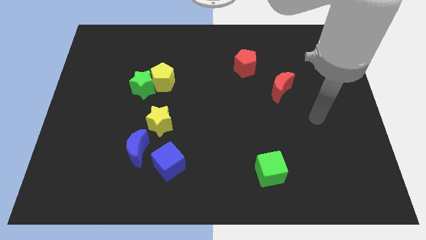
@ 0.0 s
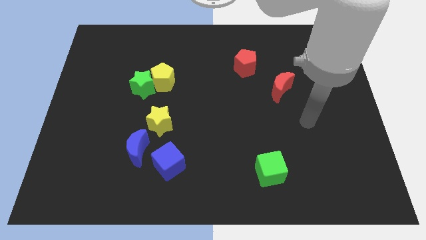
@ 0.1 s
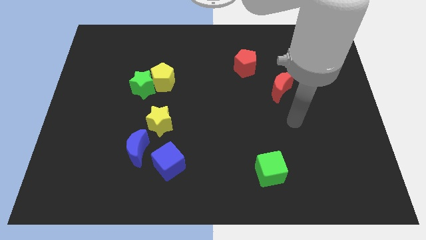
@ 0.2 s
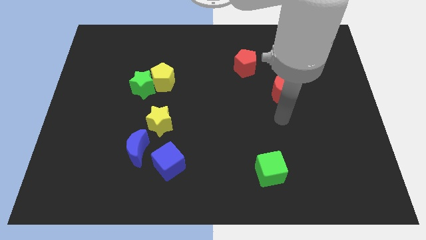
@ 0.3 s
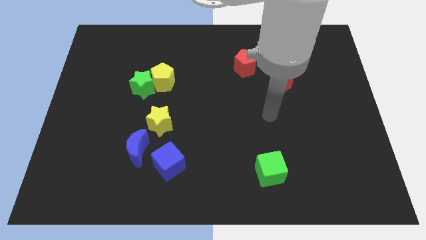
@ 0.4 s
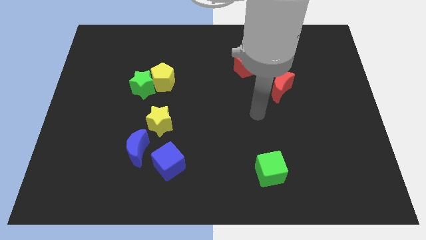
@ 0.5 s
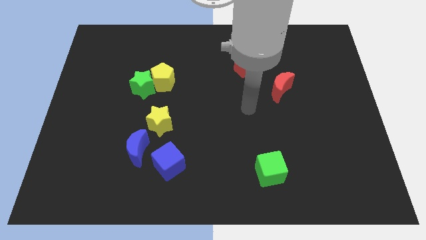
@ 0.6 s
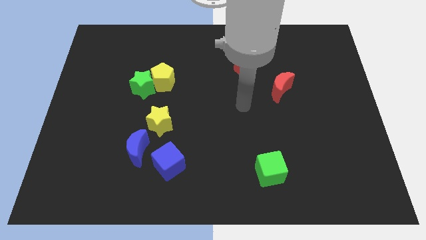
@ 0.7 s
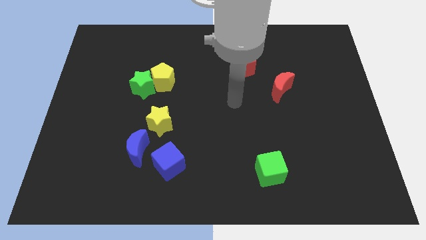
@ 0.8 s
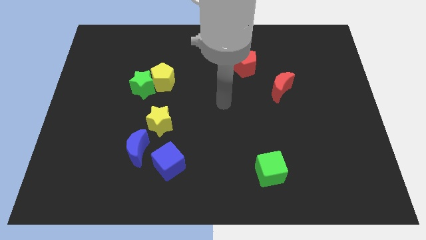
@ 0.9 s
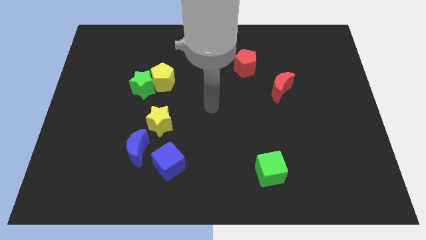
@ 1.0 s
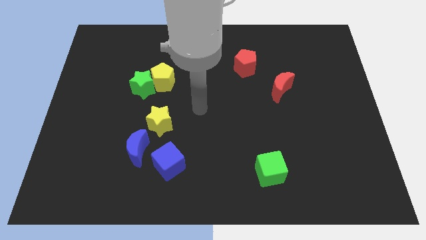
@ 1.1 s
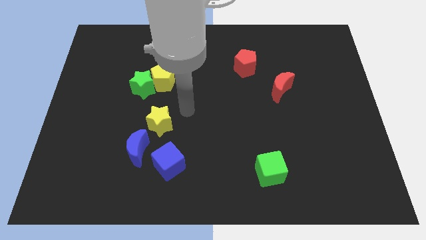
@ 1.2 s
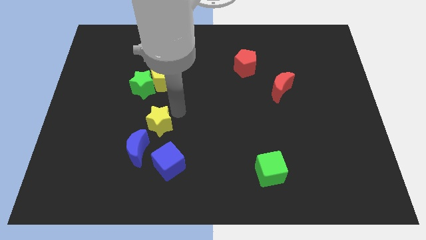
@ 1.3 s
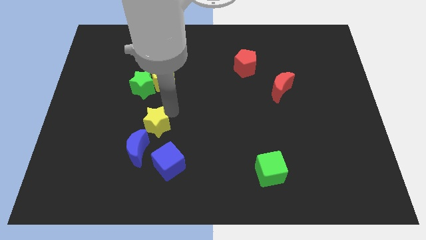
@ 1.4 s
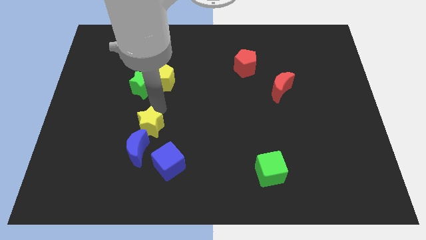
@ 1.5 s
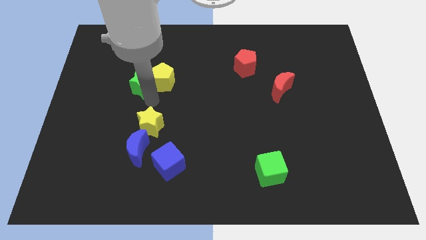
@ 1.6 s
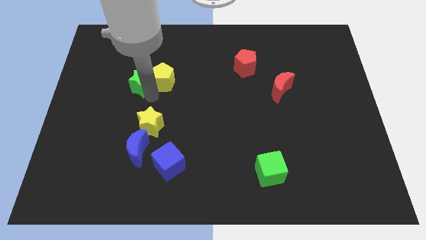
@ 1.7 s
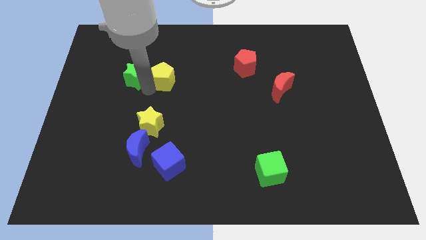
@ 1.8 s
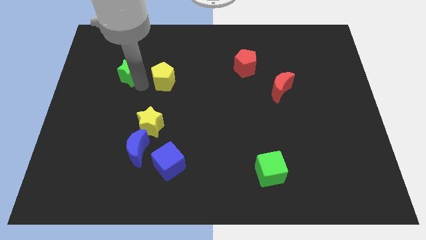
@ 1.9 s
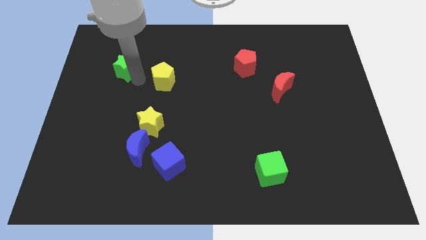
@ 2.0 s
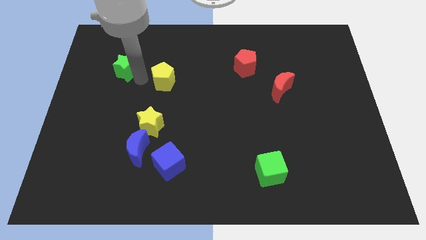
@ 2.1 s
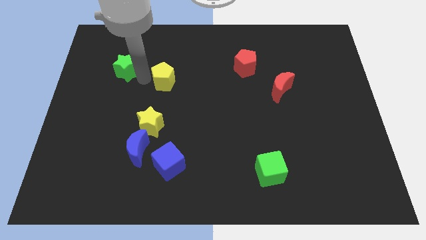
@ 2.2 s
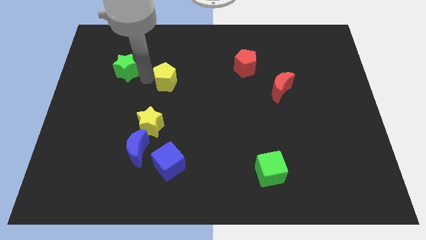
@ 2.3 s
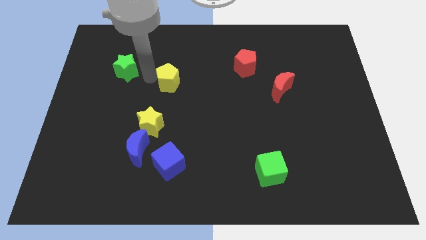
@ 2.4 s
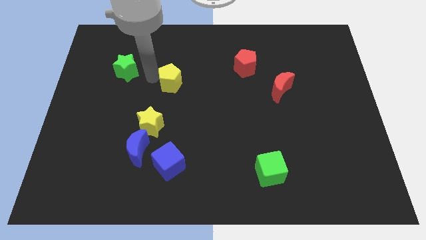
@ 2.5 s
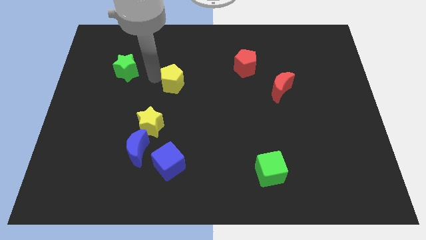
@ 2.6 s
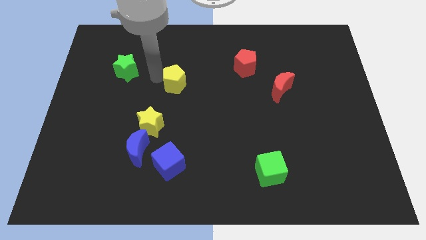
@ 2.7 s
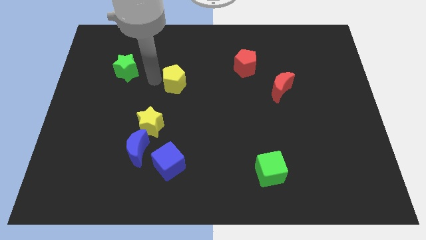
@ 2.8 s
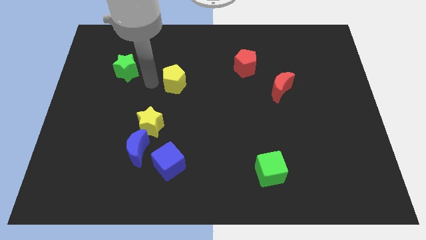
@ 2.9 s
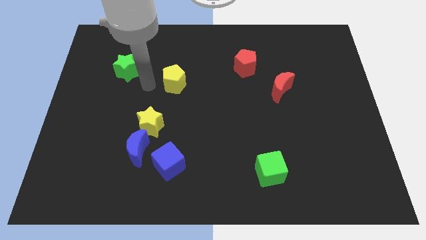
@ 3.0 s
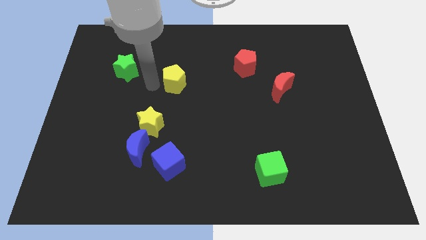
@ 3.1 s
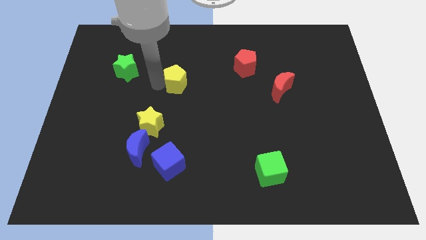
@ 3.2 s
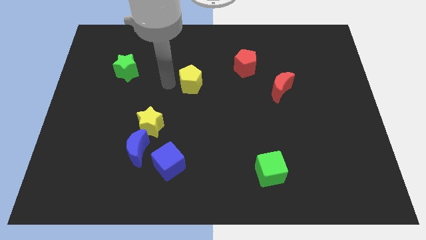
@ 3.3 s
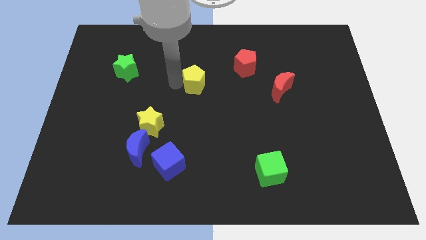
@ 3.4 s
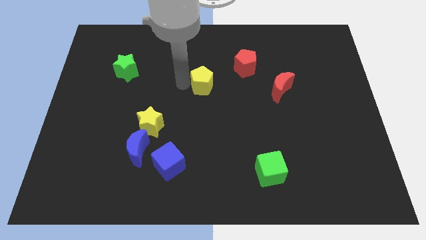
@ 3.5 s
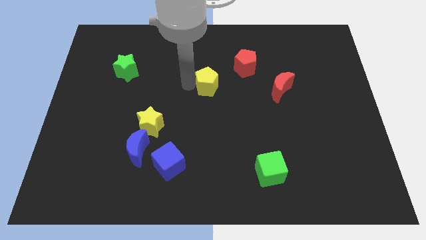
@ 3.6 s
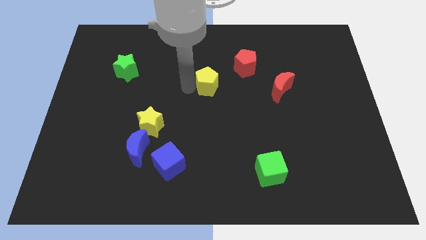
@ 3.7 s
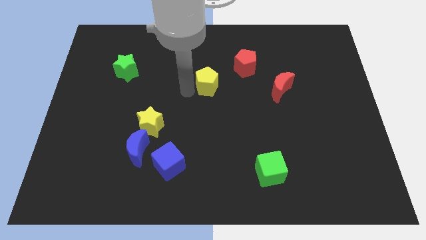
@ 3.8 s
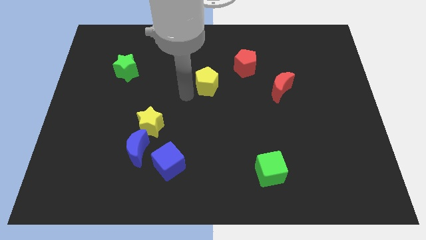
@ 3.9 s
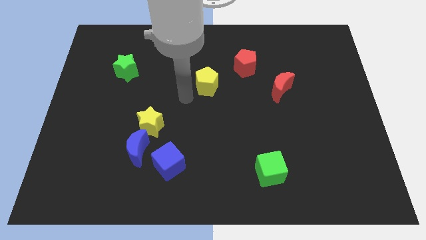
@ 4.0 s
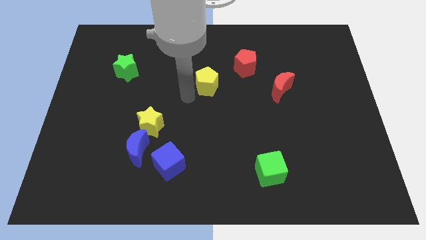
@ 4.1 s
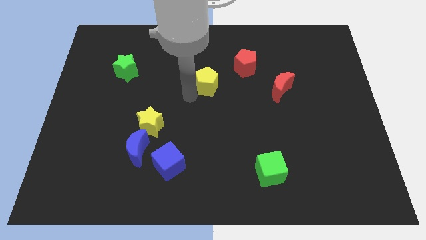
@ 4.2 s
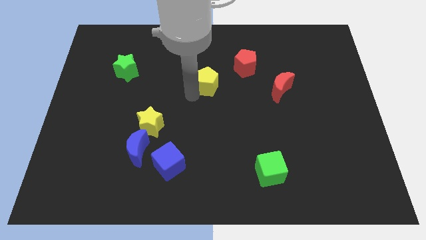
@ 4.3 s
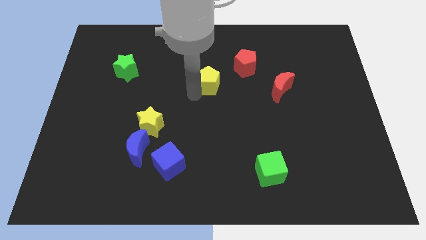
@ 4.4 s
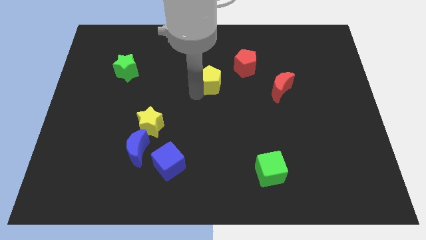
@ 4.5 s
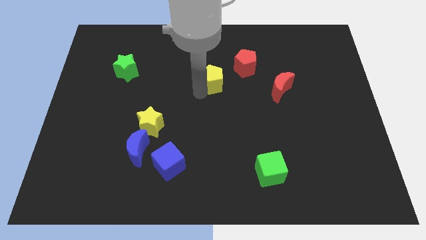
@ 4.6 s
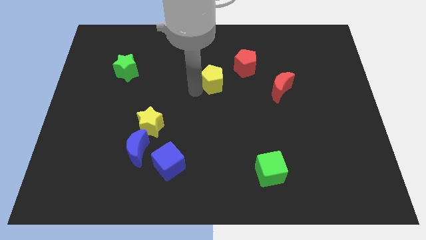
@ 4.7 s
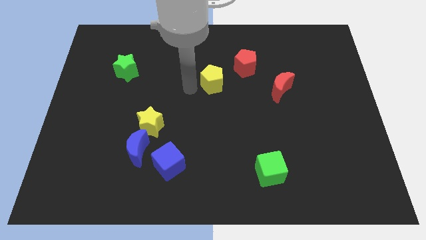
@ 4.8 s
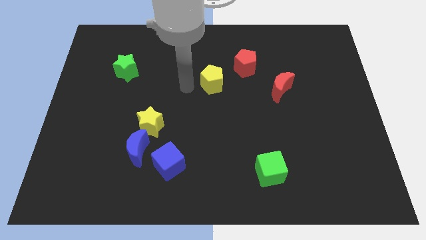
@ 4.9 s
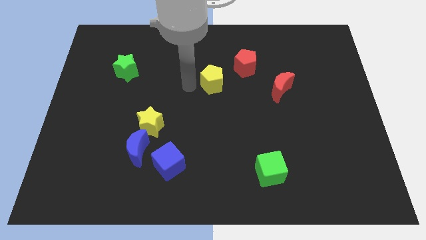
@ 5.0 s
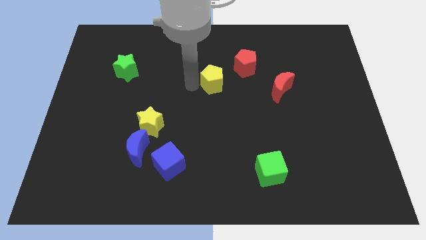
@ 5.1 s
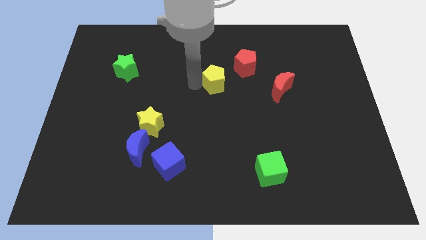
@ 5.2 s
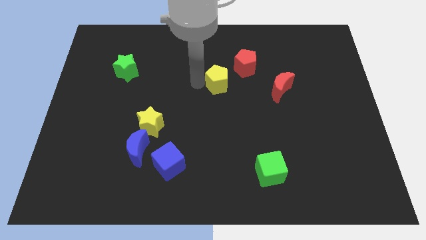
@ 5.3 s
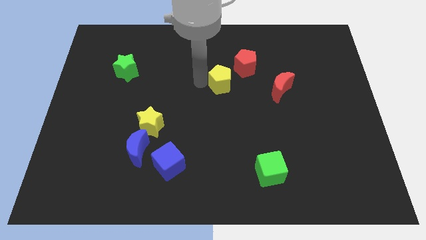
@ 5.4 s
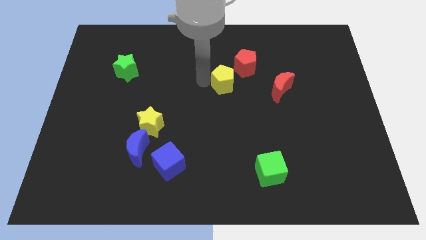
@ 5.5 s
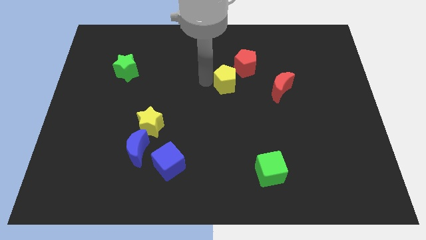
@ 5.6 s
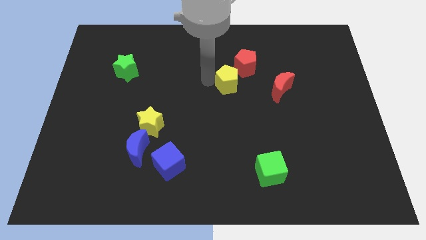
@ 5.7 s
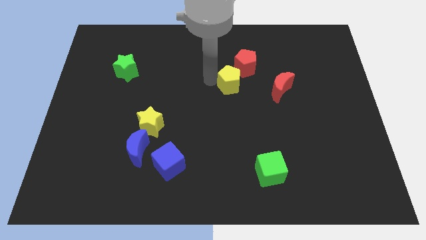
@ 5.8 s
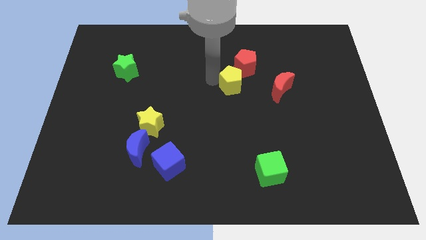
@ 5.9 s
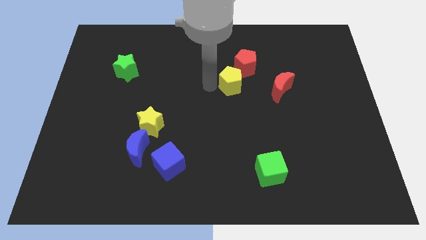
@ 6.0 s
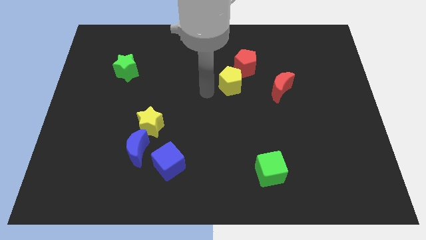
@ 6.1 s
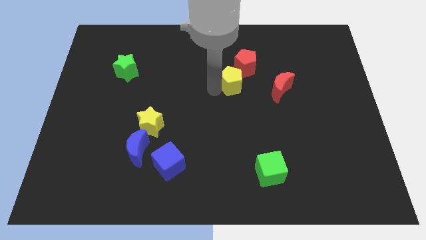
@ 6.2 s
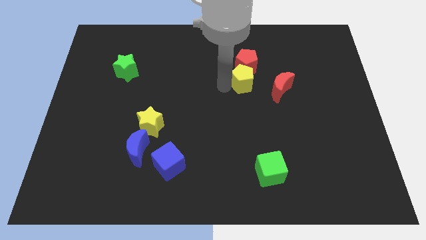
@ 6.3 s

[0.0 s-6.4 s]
slide the yellow pentagon right

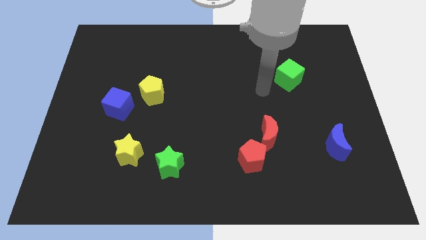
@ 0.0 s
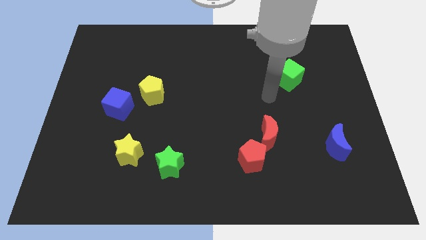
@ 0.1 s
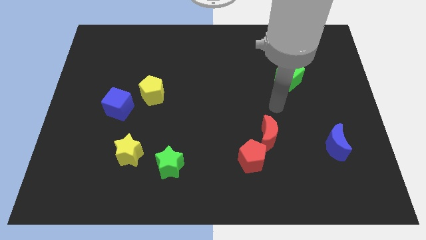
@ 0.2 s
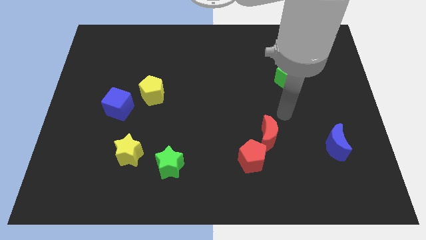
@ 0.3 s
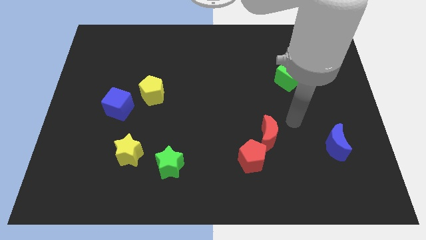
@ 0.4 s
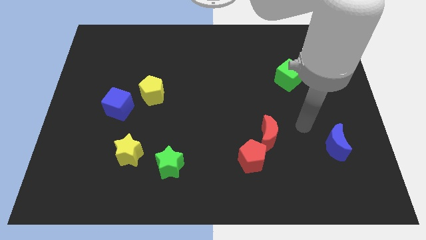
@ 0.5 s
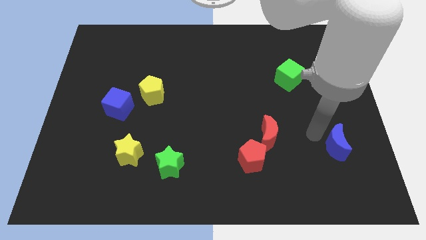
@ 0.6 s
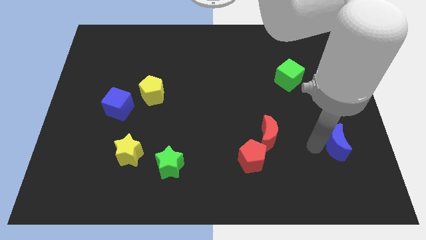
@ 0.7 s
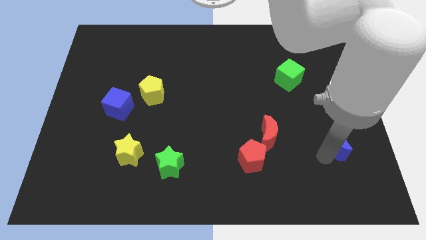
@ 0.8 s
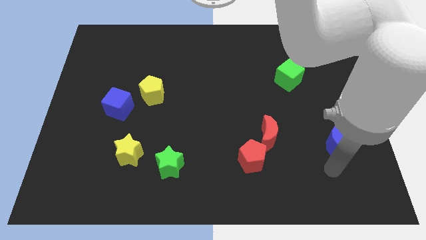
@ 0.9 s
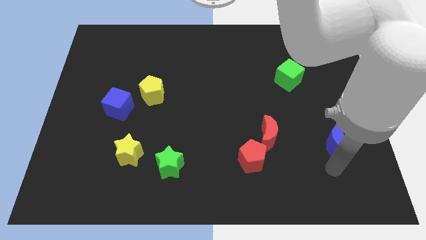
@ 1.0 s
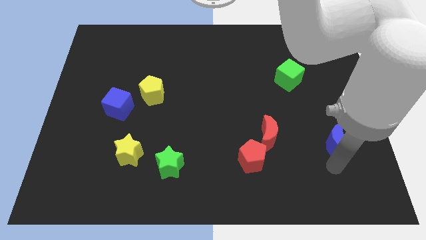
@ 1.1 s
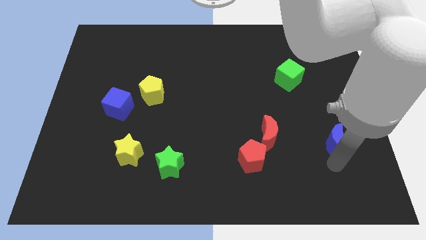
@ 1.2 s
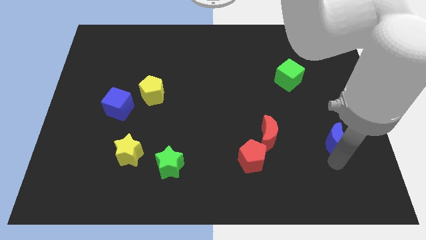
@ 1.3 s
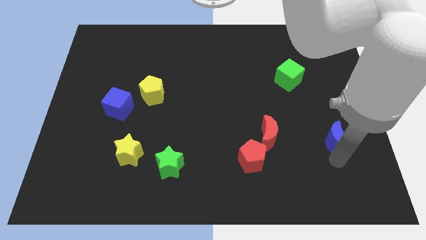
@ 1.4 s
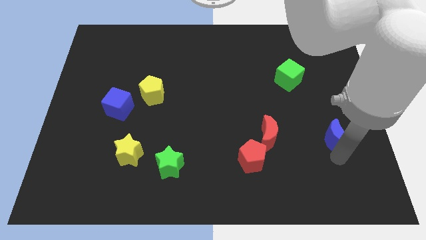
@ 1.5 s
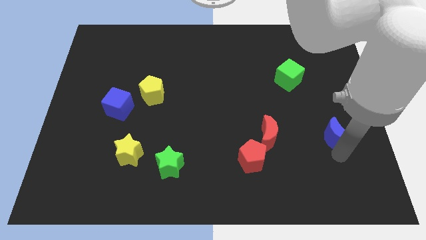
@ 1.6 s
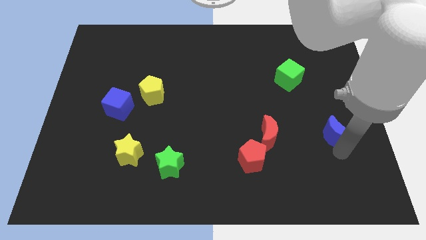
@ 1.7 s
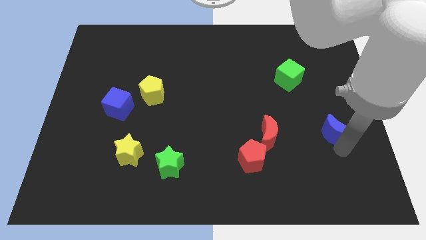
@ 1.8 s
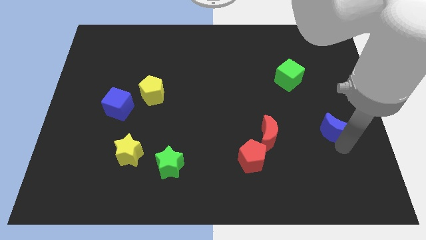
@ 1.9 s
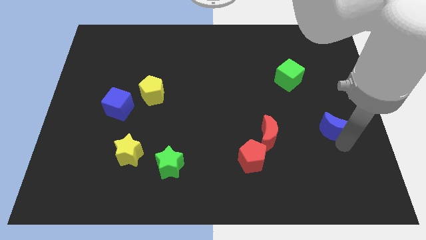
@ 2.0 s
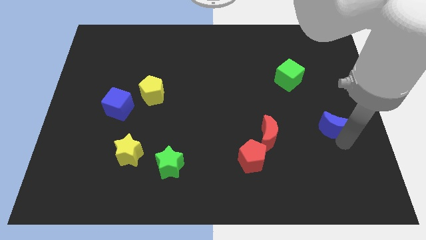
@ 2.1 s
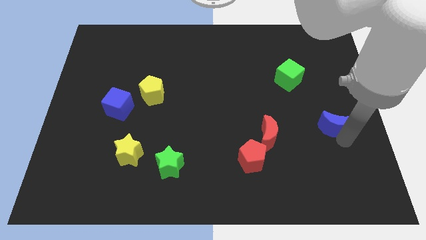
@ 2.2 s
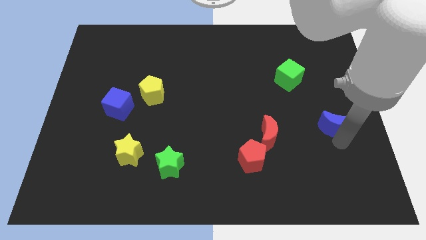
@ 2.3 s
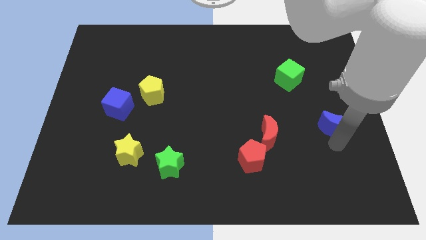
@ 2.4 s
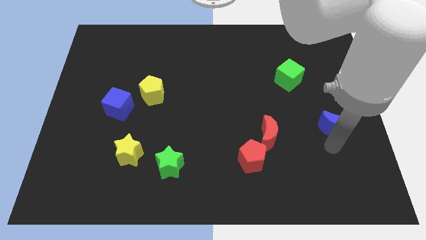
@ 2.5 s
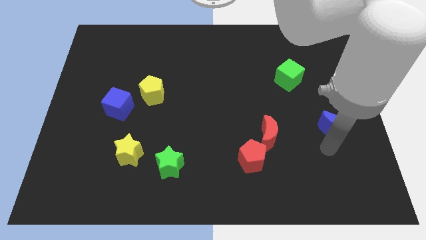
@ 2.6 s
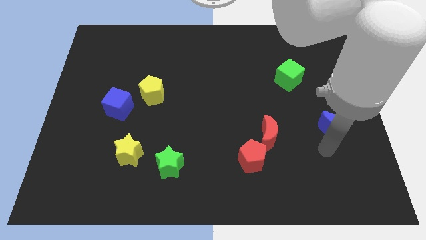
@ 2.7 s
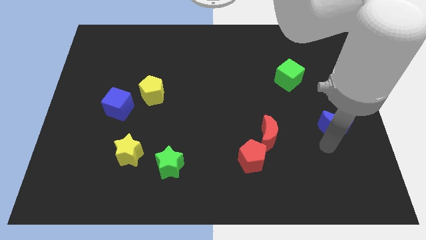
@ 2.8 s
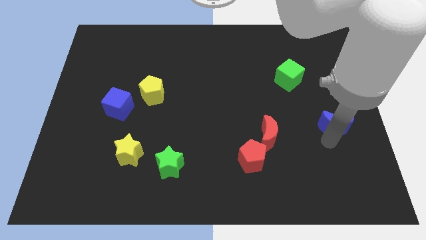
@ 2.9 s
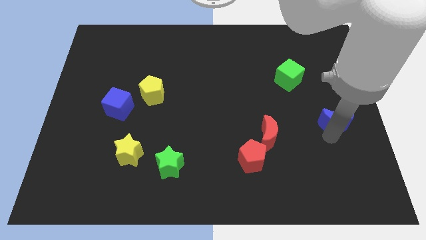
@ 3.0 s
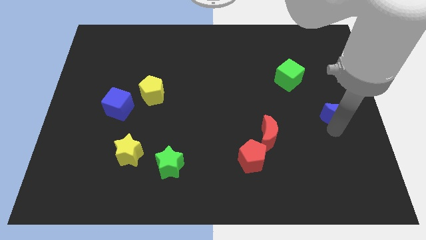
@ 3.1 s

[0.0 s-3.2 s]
move the blue moon upwards somewhat
